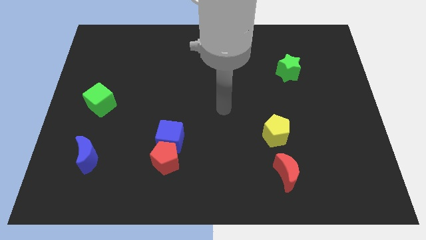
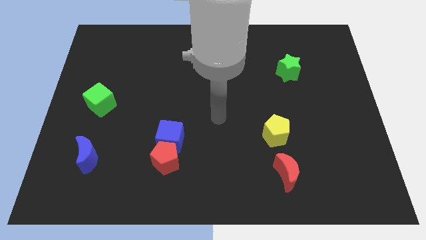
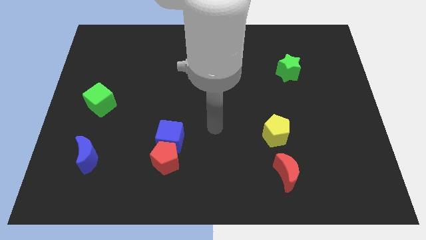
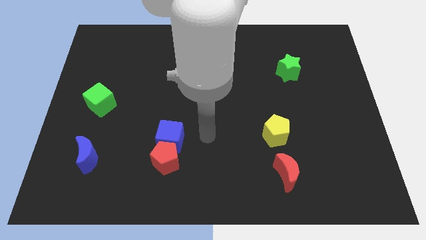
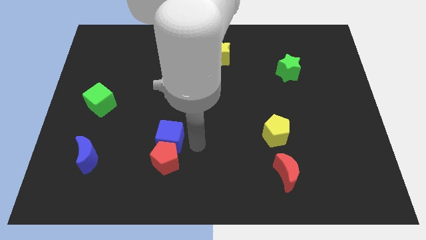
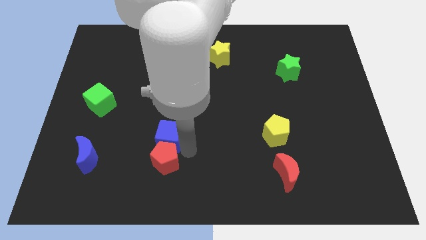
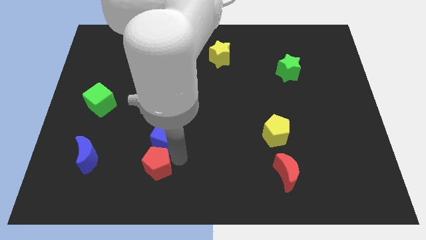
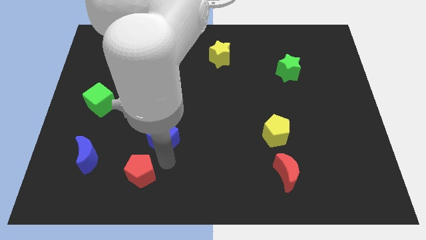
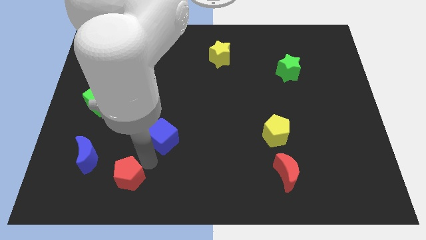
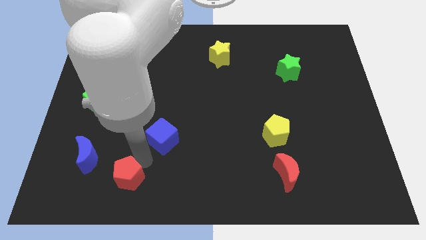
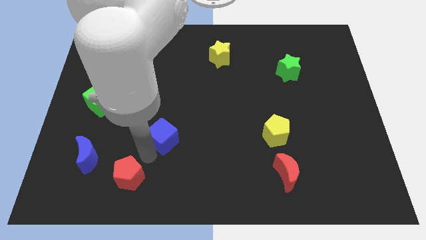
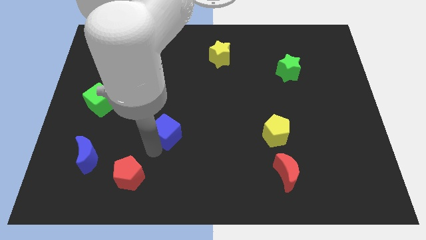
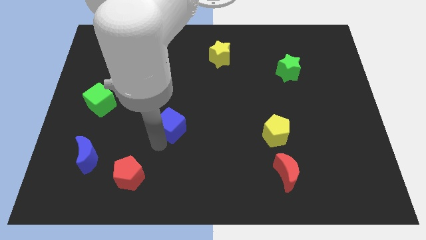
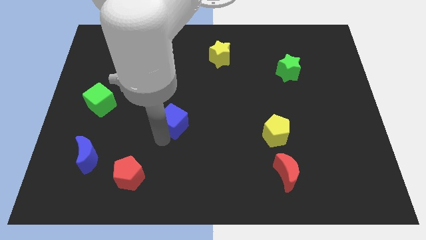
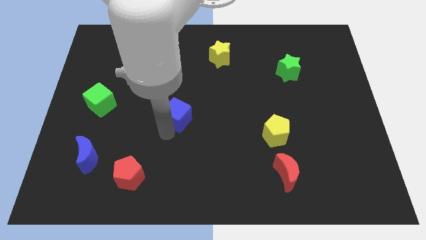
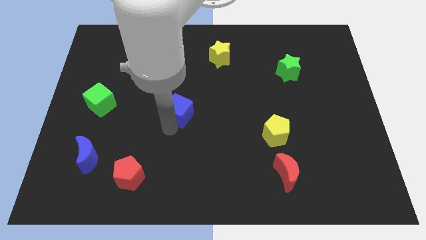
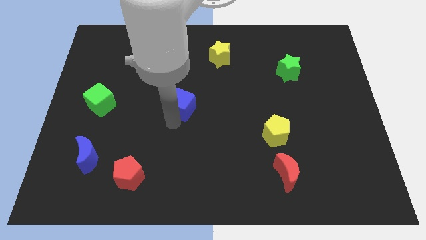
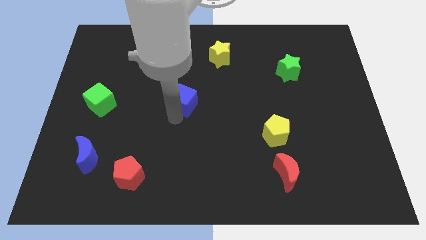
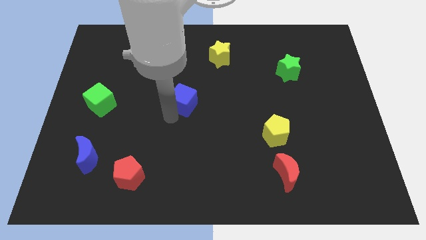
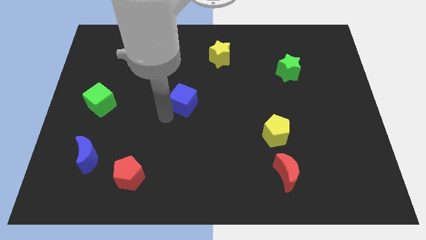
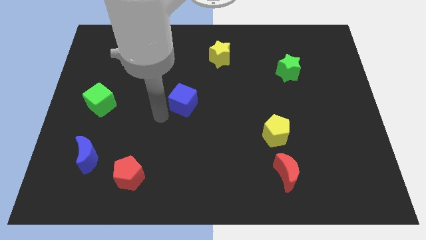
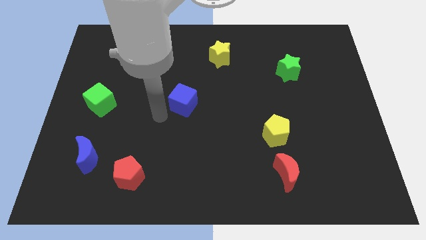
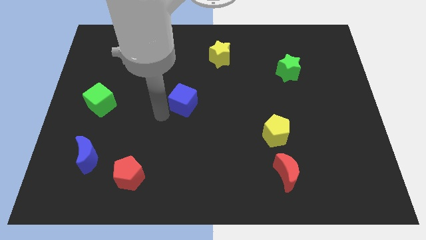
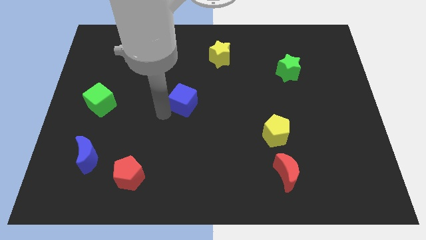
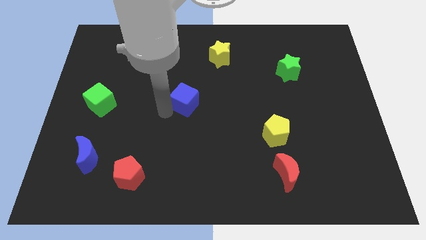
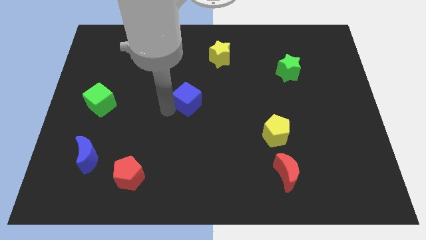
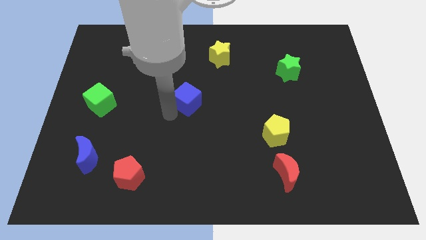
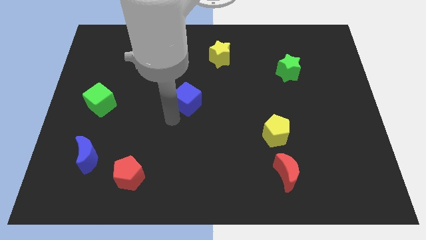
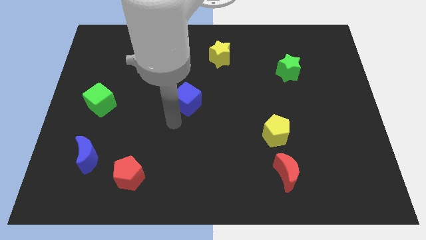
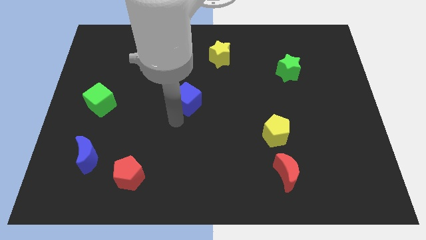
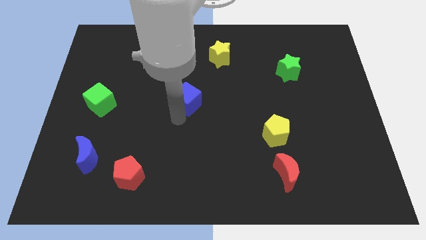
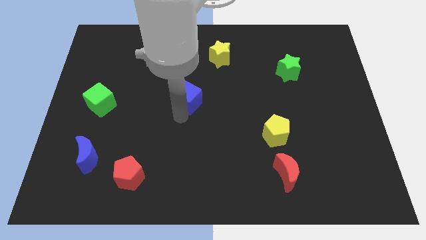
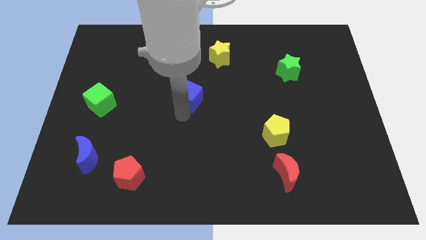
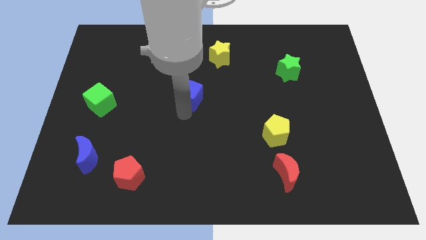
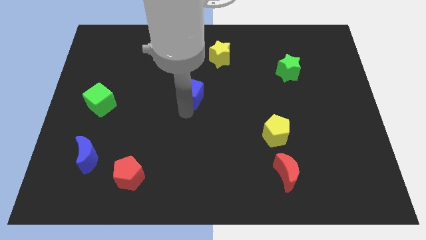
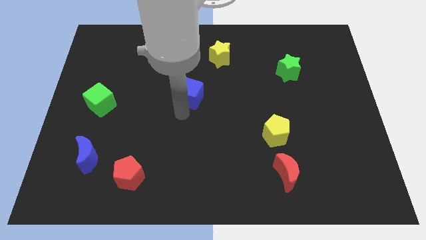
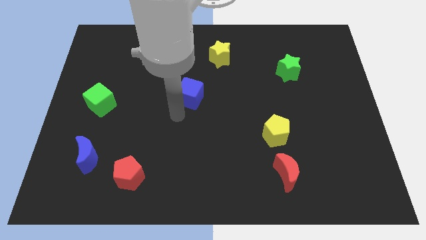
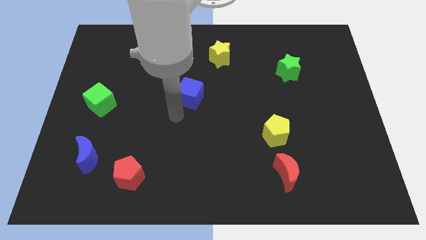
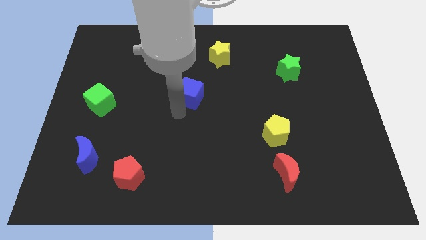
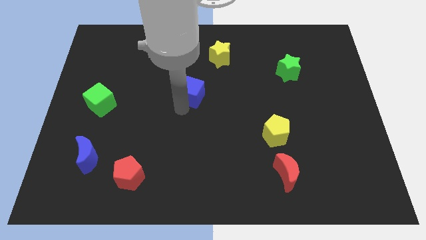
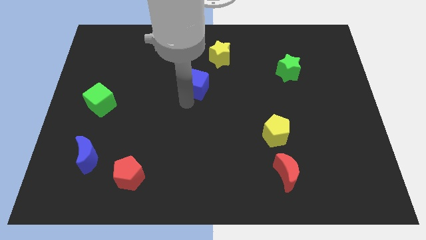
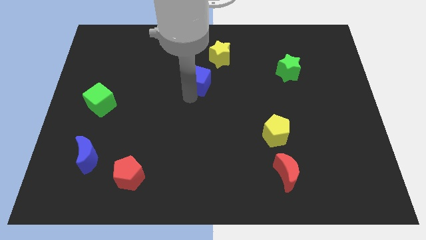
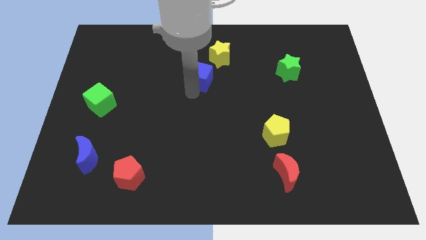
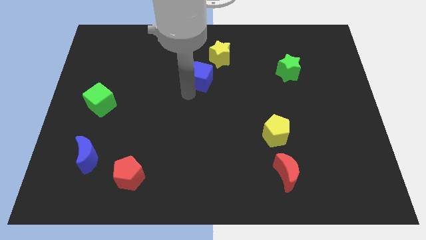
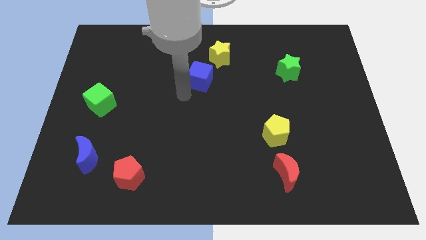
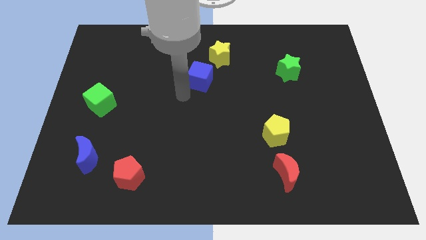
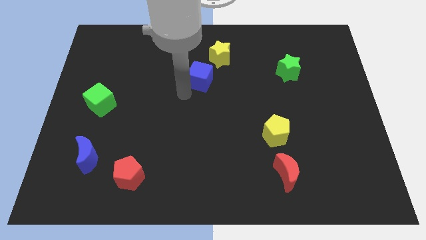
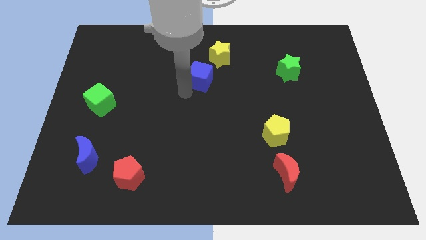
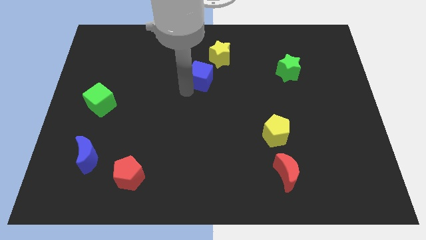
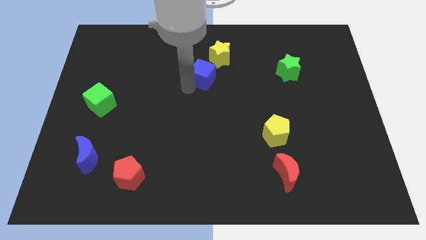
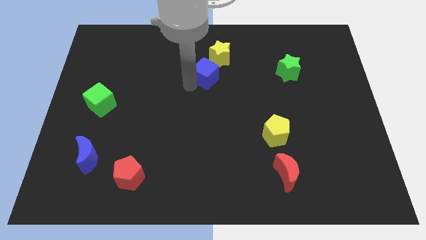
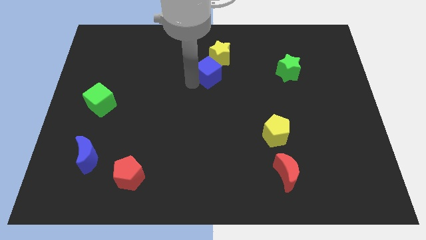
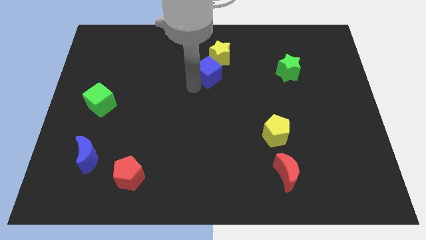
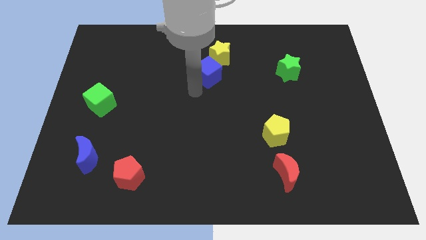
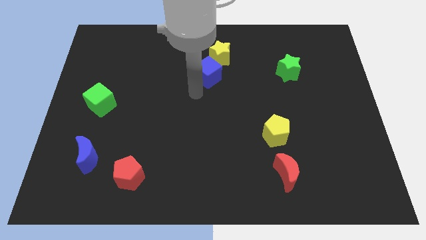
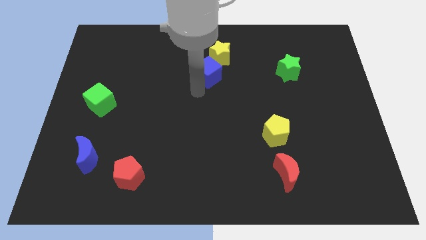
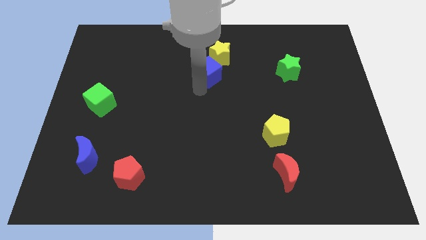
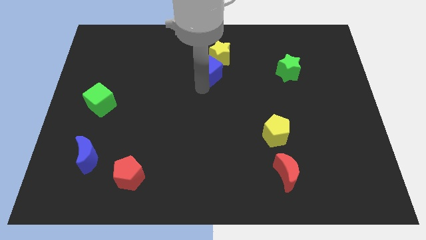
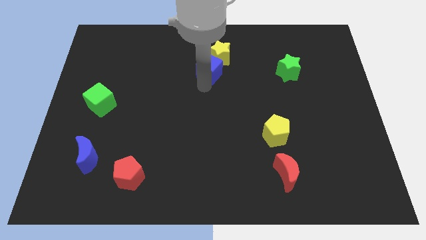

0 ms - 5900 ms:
put the blue cube next to the yellow star

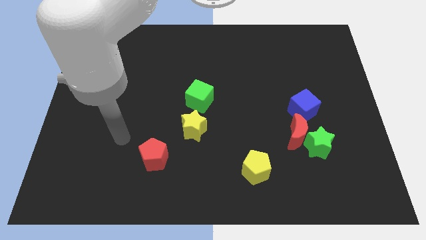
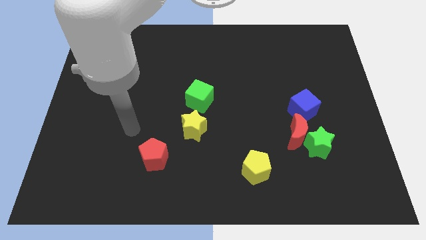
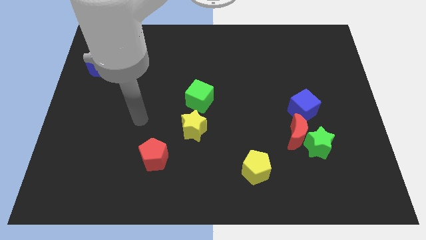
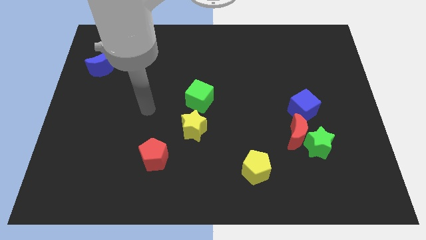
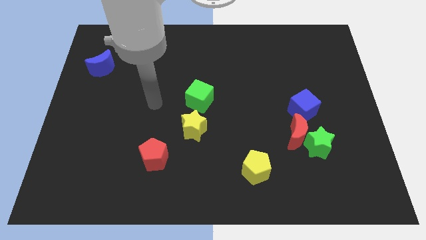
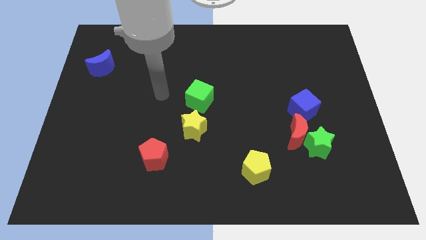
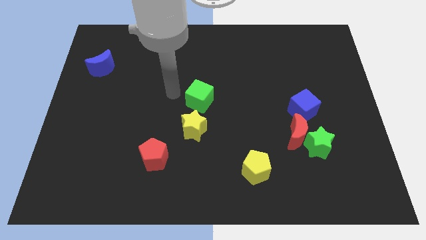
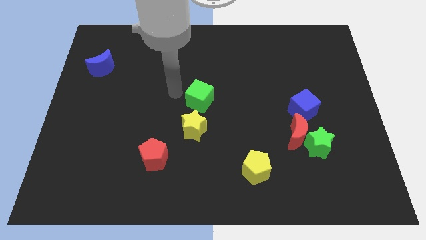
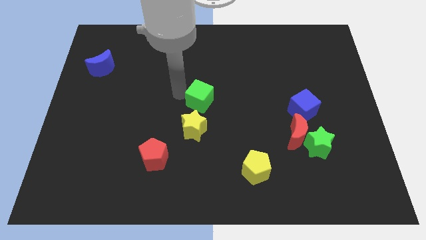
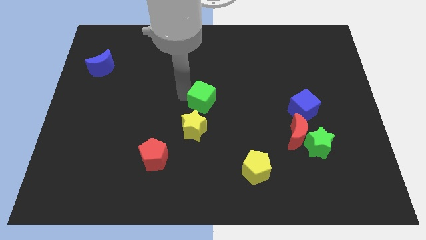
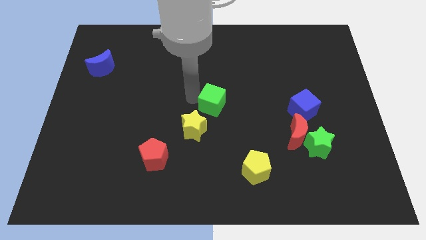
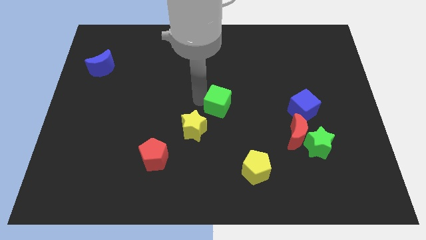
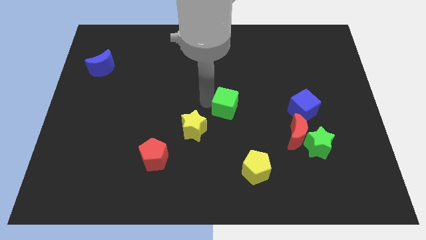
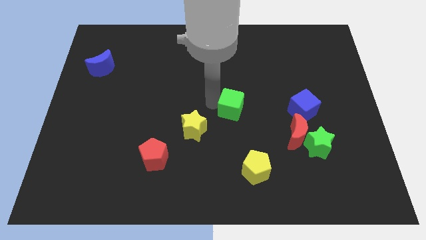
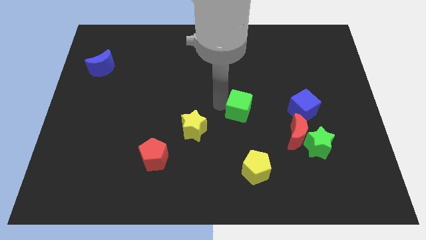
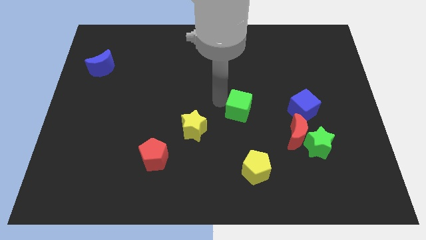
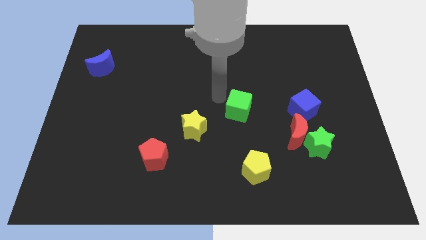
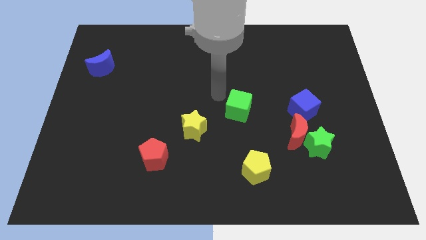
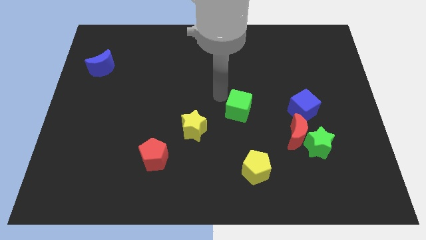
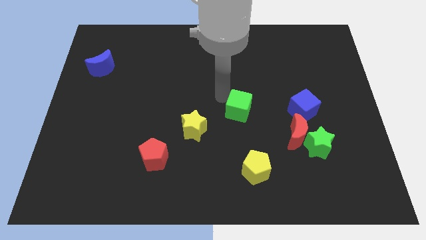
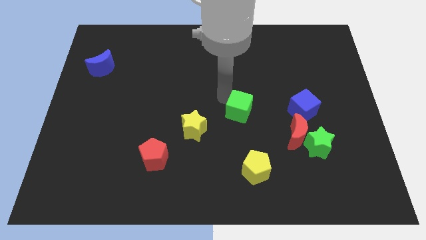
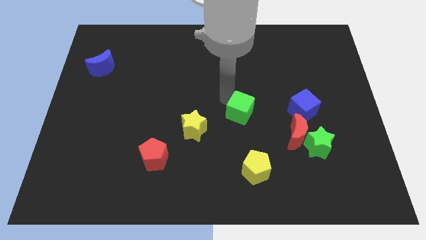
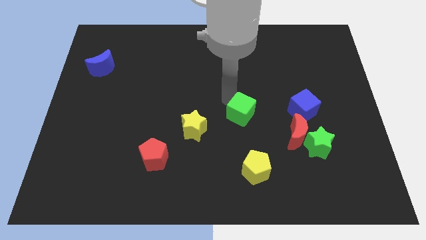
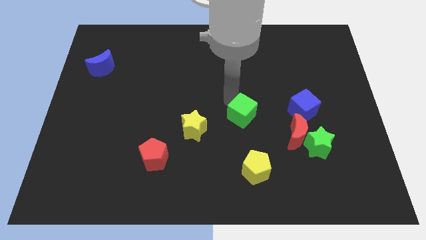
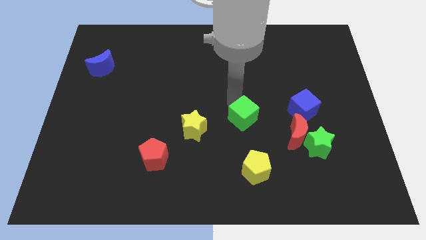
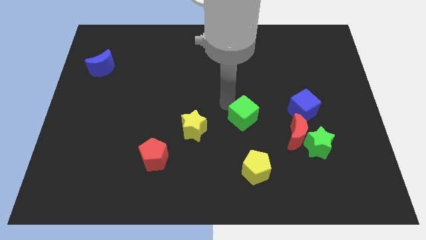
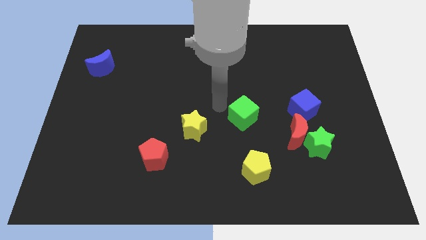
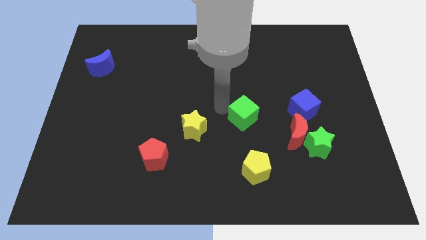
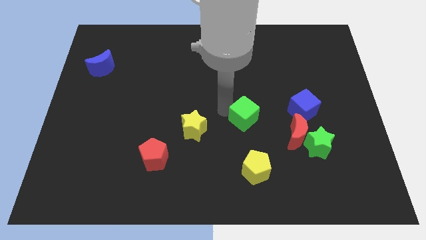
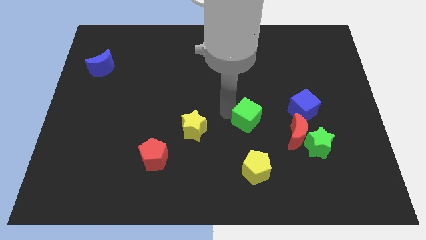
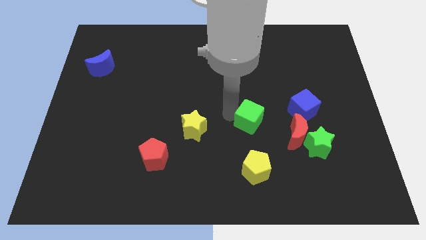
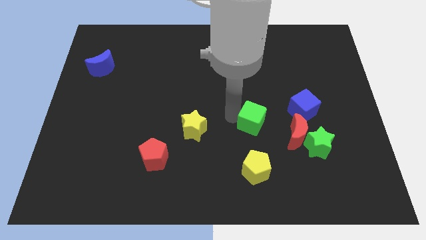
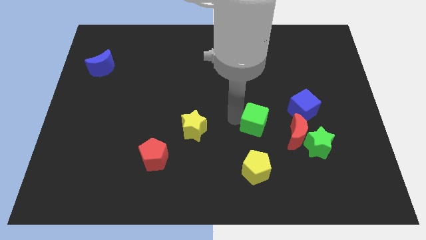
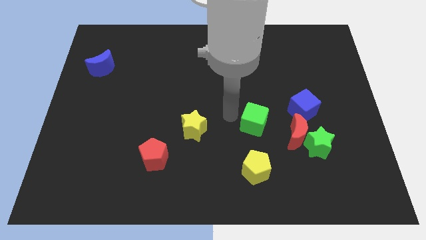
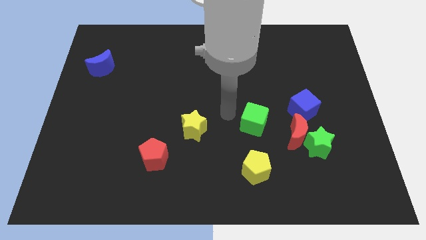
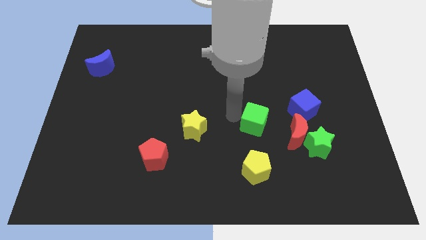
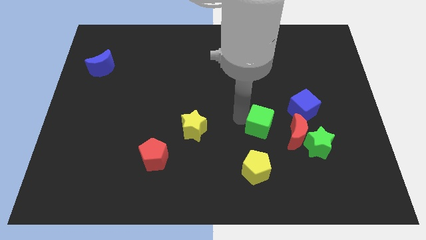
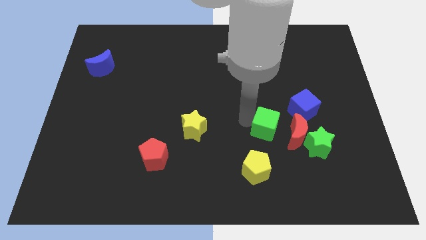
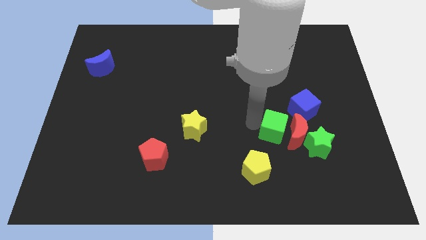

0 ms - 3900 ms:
put the green cube towards the red moon
